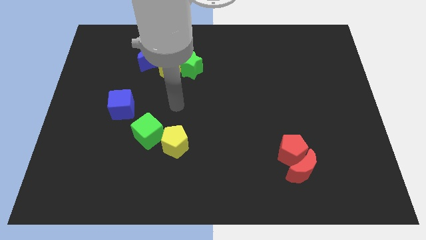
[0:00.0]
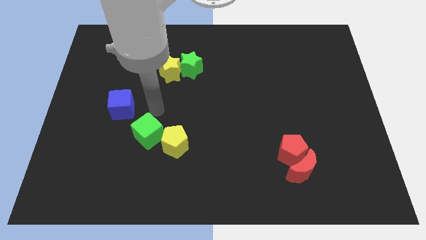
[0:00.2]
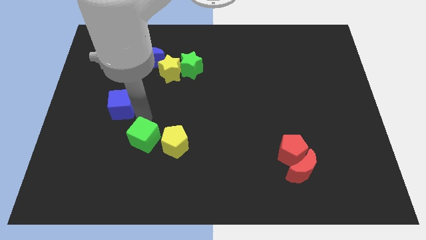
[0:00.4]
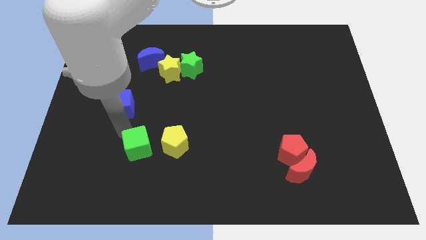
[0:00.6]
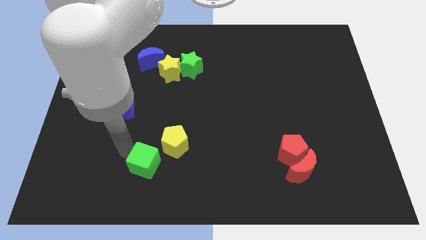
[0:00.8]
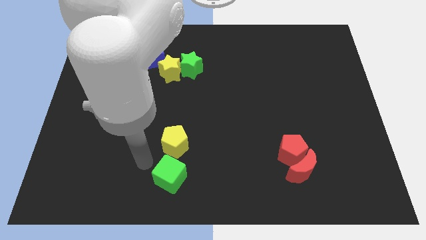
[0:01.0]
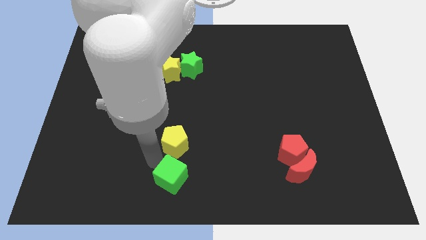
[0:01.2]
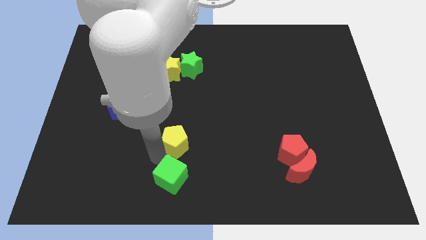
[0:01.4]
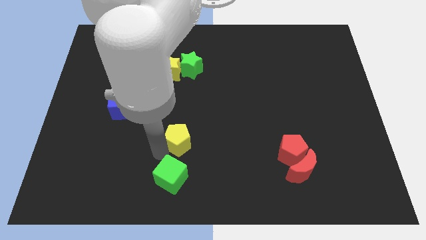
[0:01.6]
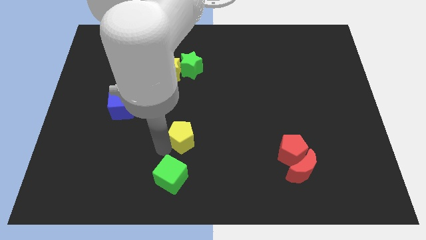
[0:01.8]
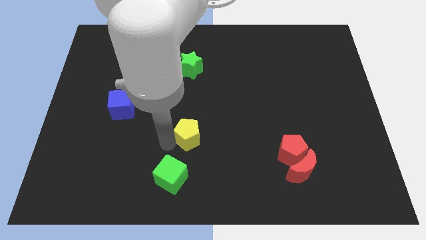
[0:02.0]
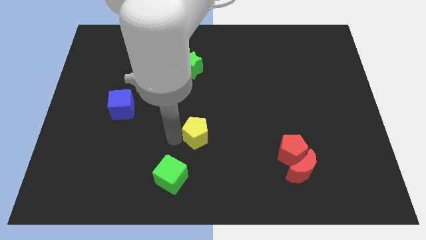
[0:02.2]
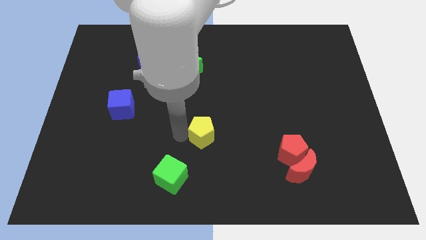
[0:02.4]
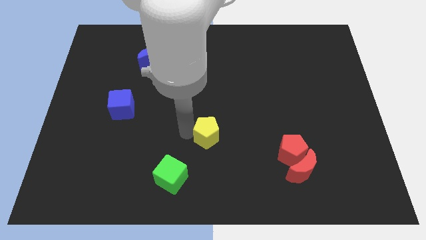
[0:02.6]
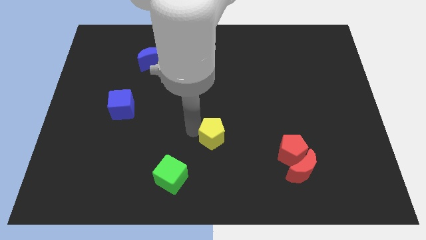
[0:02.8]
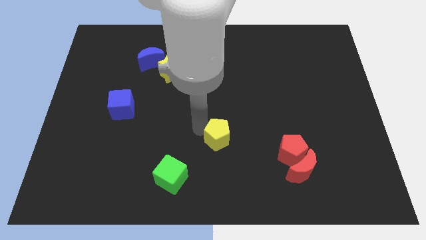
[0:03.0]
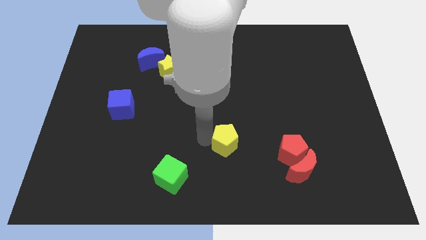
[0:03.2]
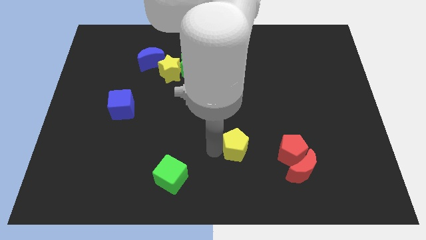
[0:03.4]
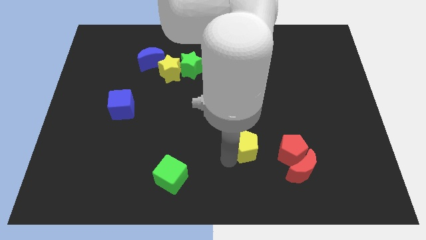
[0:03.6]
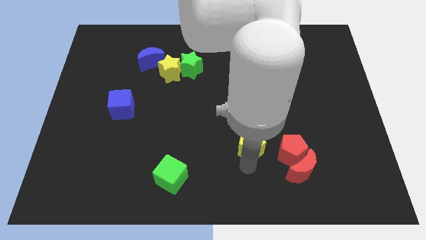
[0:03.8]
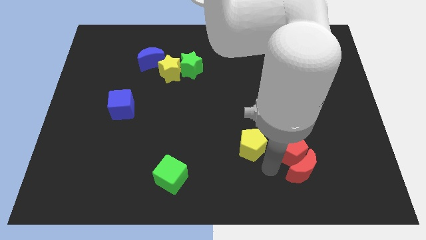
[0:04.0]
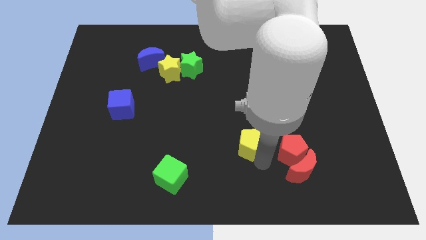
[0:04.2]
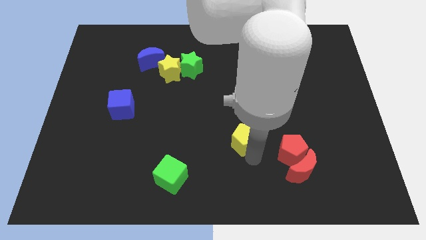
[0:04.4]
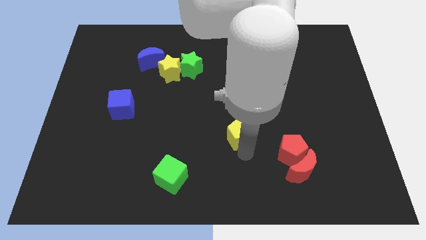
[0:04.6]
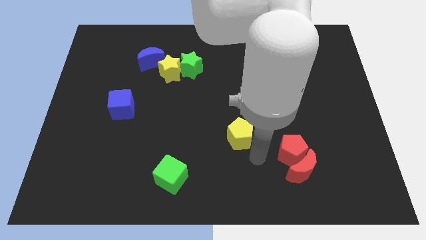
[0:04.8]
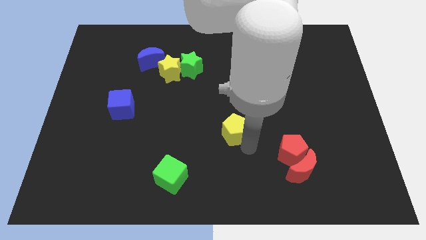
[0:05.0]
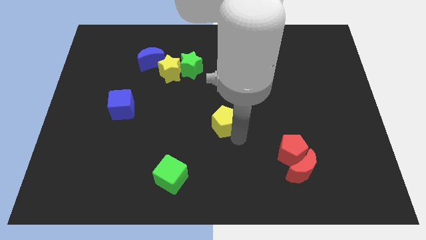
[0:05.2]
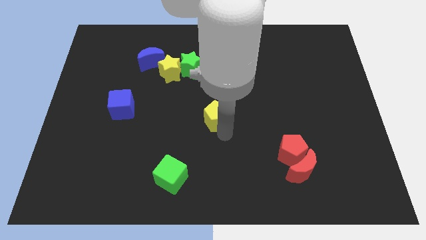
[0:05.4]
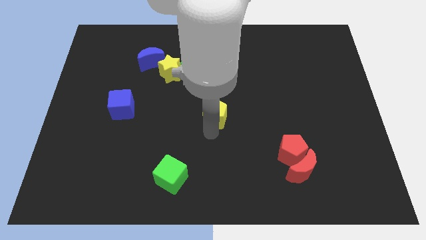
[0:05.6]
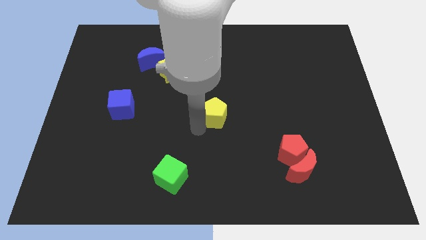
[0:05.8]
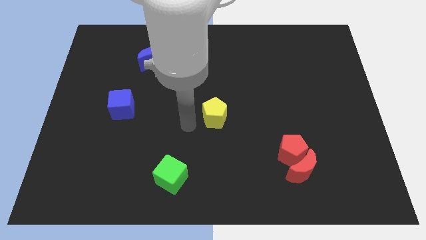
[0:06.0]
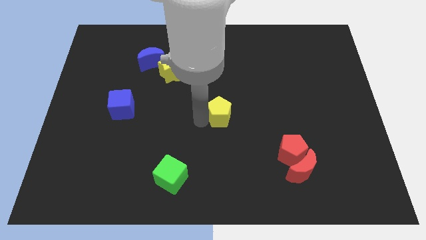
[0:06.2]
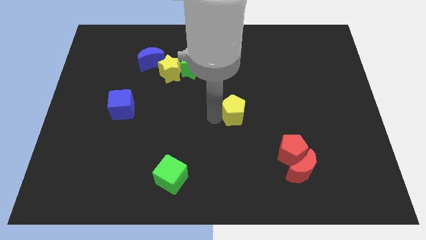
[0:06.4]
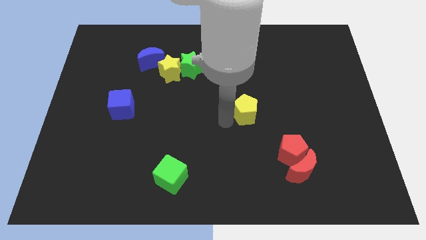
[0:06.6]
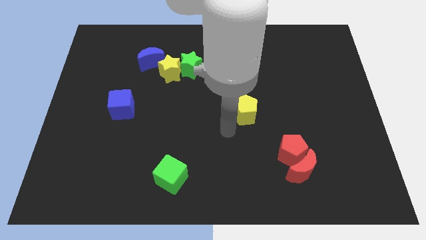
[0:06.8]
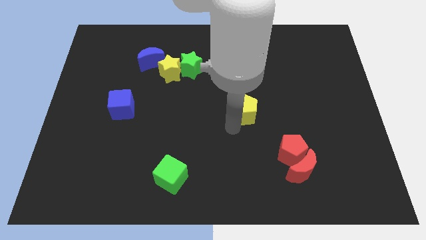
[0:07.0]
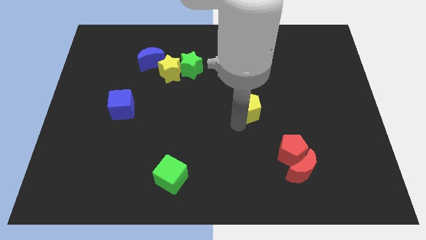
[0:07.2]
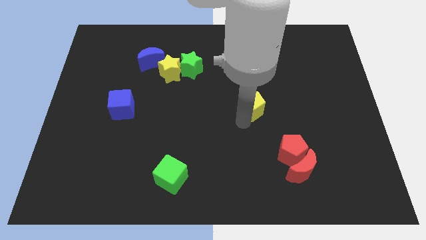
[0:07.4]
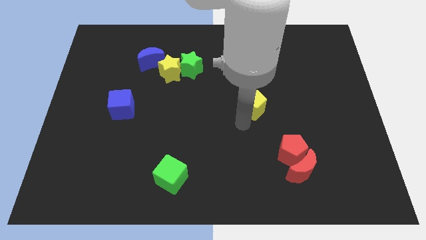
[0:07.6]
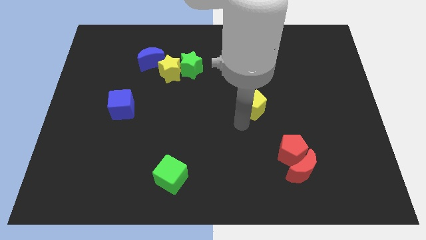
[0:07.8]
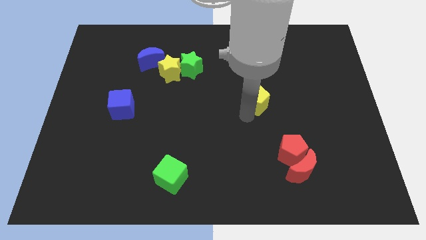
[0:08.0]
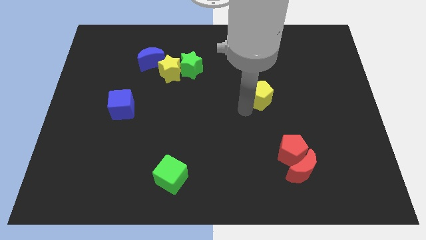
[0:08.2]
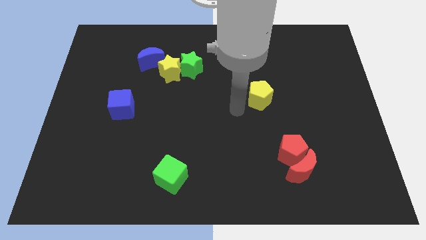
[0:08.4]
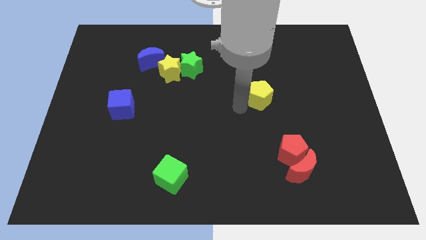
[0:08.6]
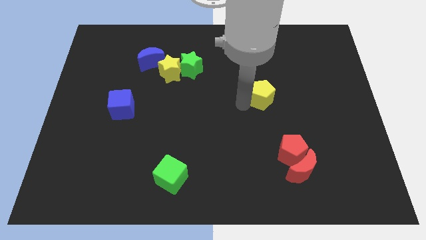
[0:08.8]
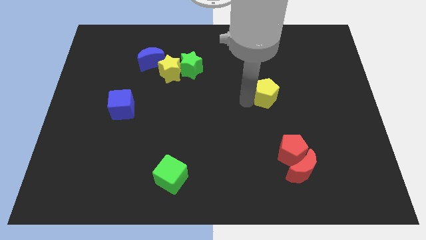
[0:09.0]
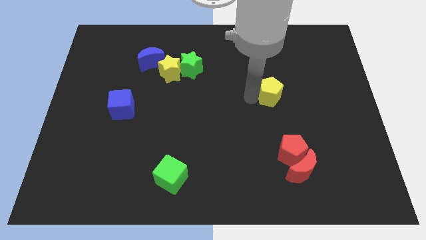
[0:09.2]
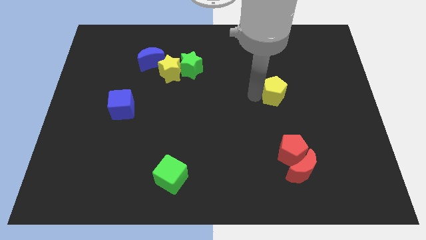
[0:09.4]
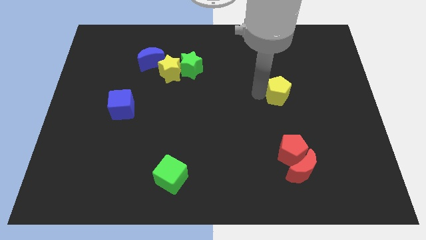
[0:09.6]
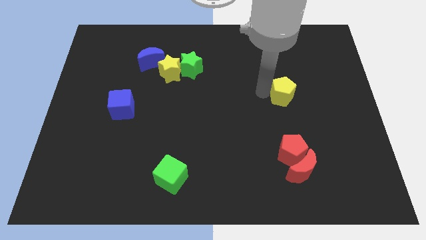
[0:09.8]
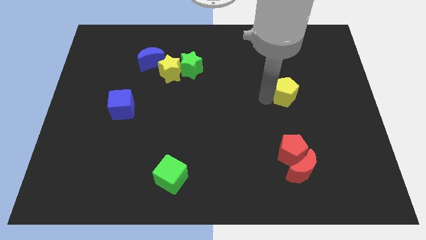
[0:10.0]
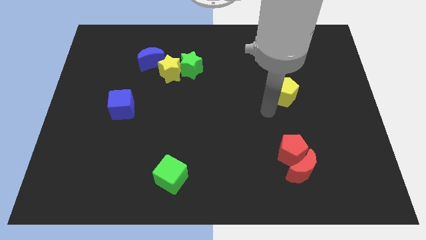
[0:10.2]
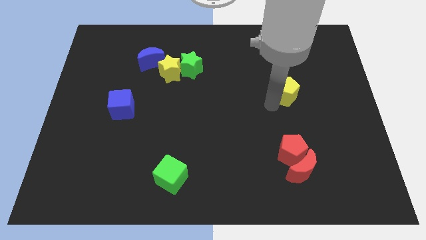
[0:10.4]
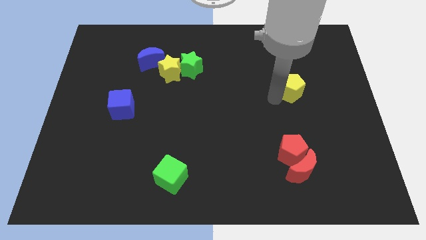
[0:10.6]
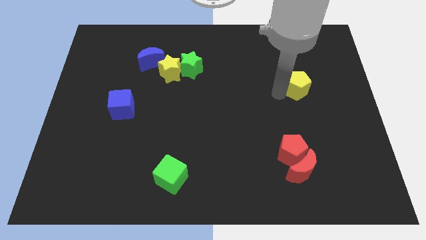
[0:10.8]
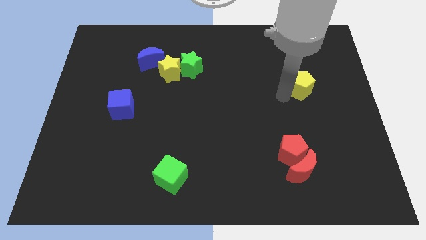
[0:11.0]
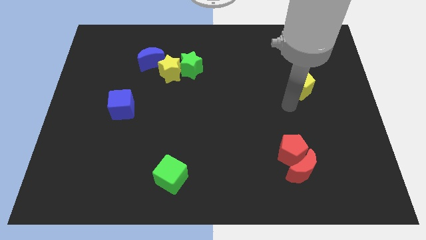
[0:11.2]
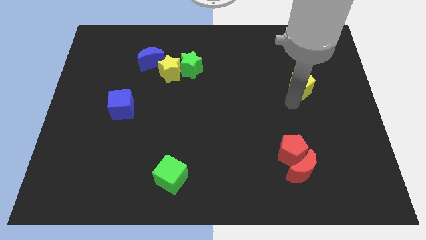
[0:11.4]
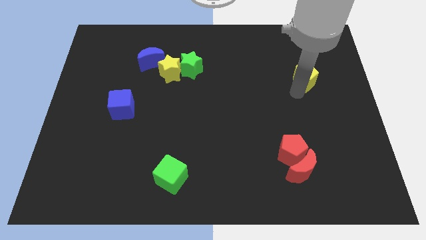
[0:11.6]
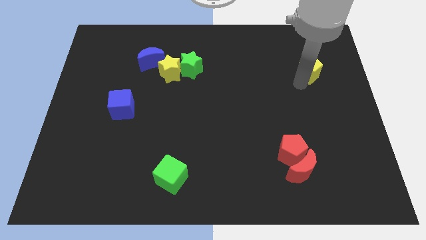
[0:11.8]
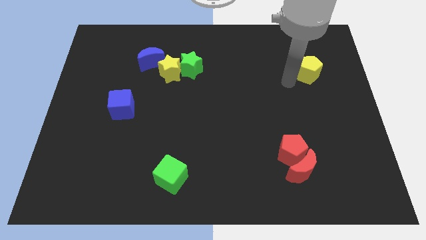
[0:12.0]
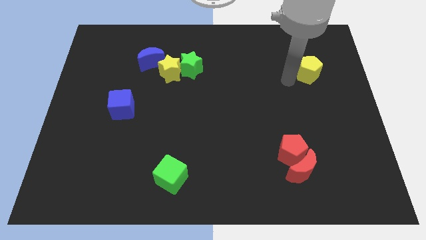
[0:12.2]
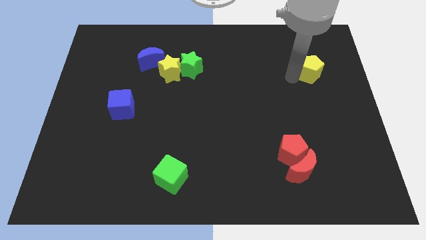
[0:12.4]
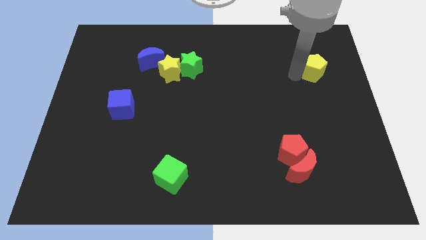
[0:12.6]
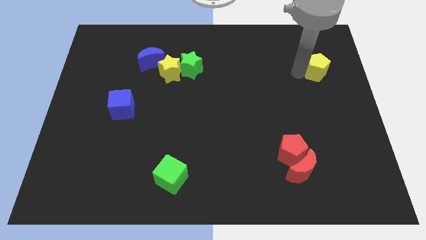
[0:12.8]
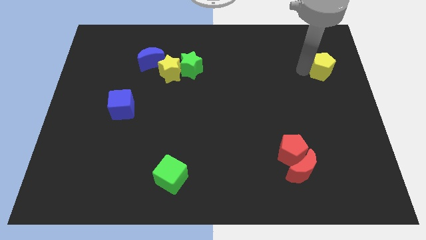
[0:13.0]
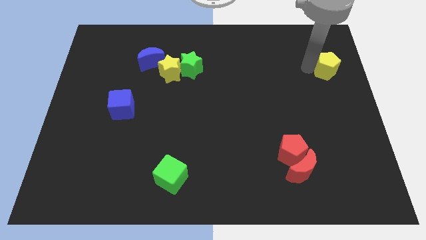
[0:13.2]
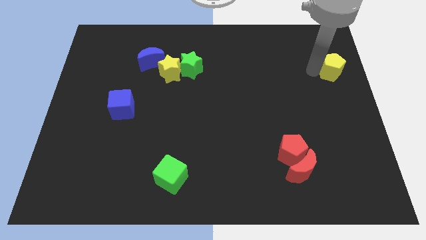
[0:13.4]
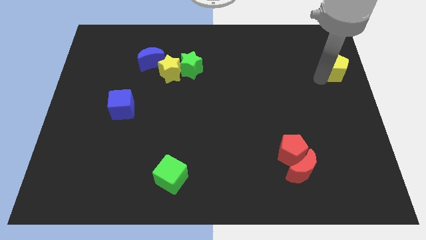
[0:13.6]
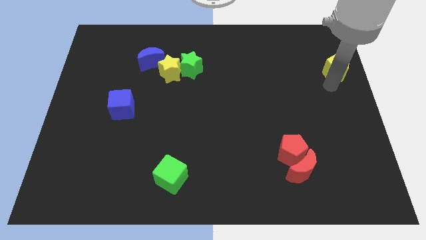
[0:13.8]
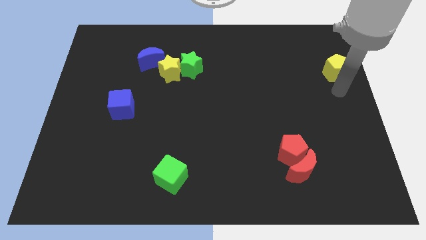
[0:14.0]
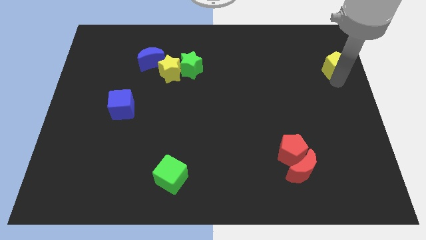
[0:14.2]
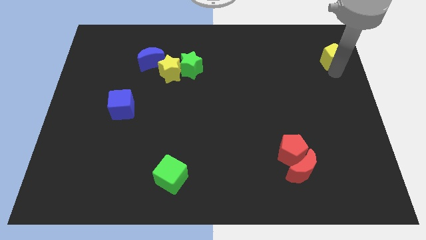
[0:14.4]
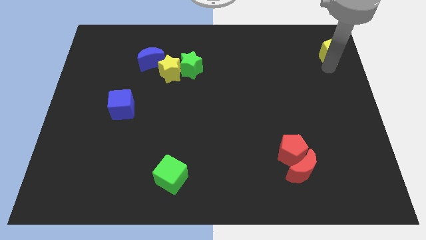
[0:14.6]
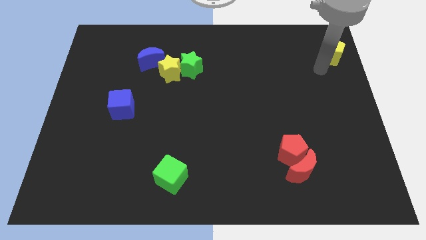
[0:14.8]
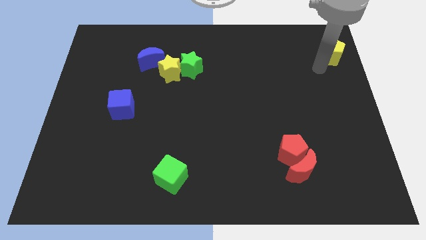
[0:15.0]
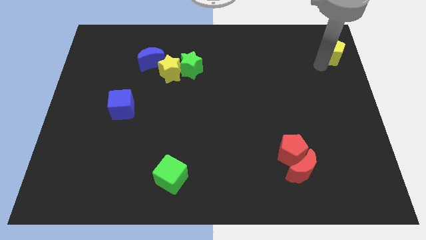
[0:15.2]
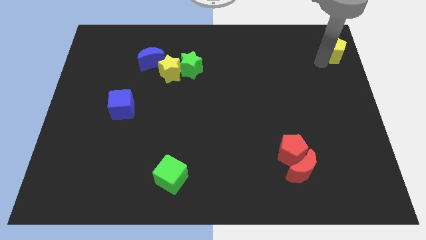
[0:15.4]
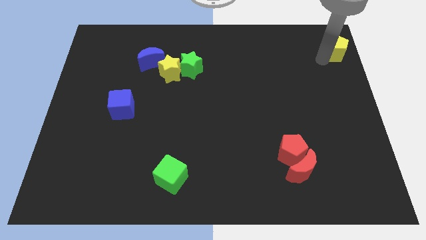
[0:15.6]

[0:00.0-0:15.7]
push the yellow pentagon to the top right
